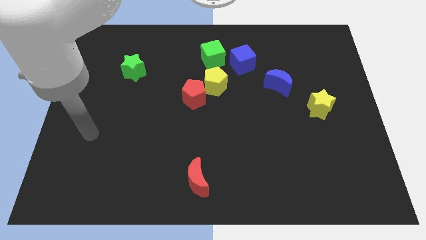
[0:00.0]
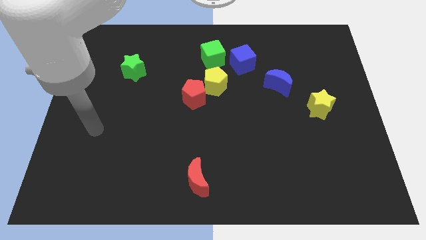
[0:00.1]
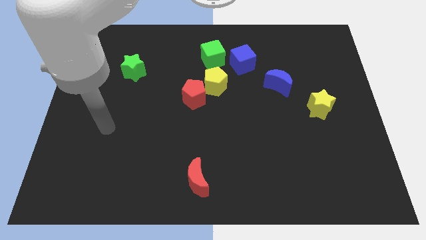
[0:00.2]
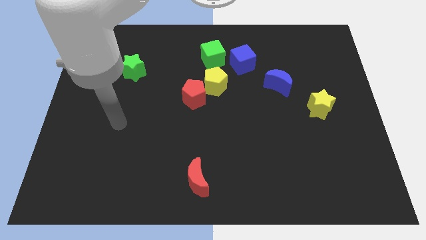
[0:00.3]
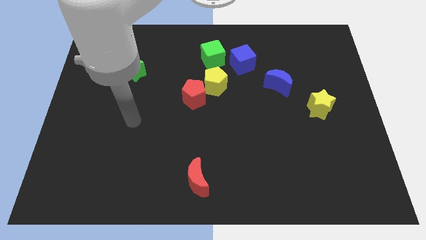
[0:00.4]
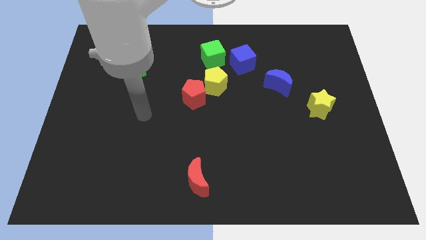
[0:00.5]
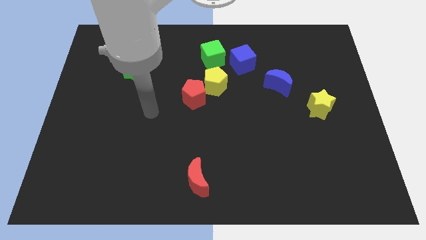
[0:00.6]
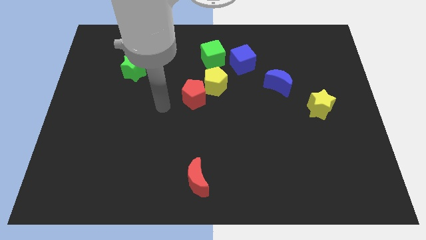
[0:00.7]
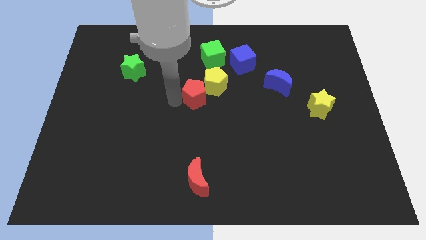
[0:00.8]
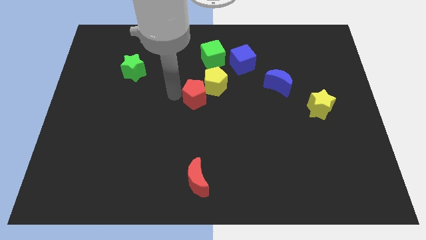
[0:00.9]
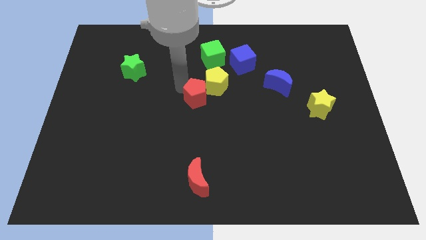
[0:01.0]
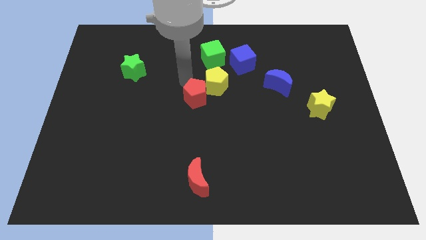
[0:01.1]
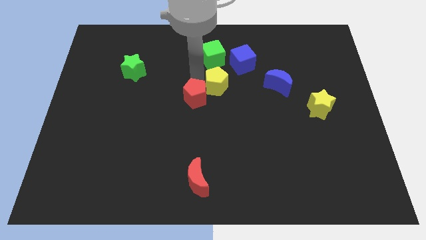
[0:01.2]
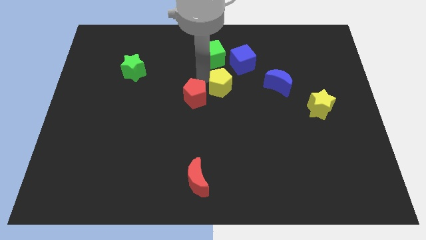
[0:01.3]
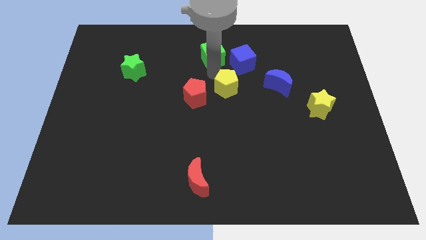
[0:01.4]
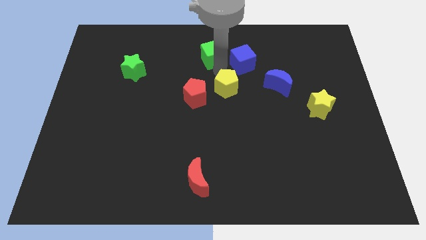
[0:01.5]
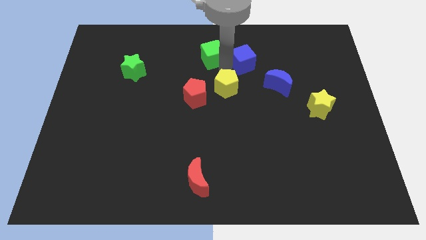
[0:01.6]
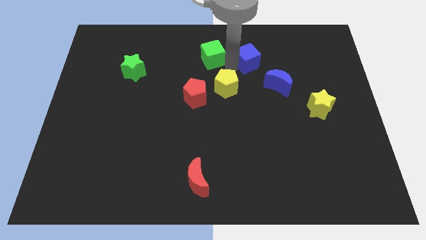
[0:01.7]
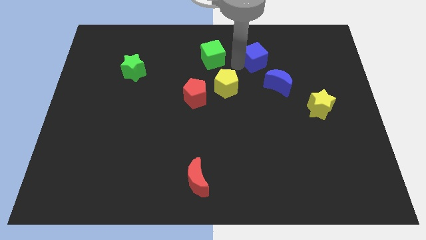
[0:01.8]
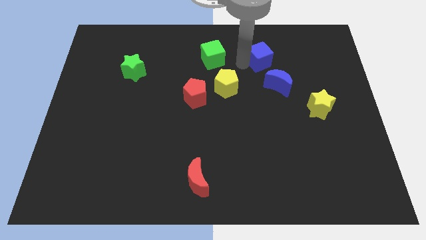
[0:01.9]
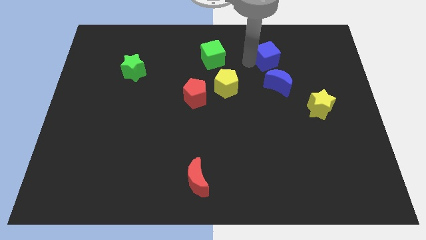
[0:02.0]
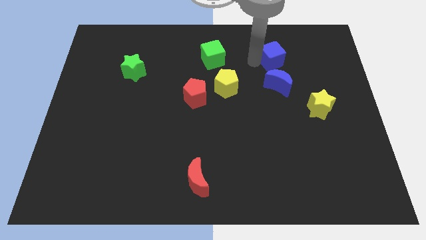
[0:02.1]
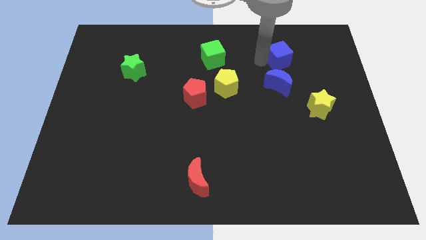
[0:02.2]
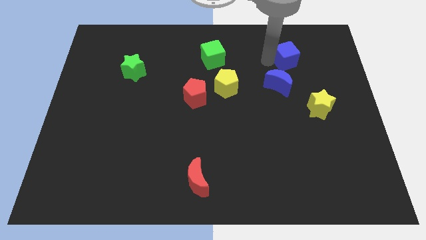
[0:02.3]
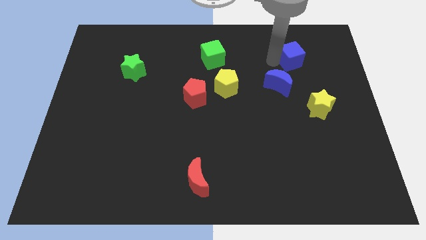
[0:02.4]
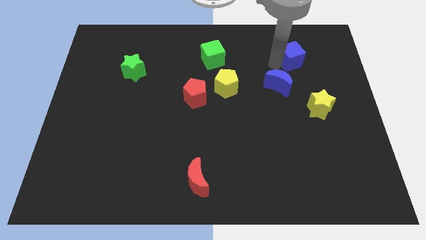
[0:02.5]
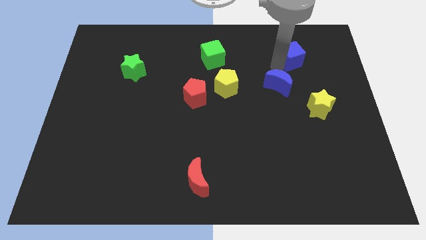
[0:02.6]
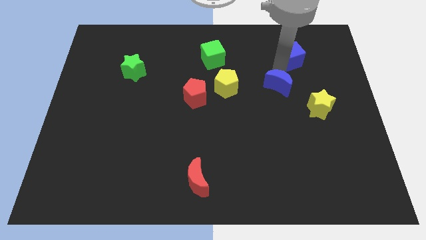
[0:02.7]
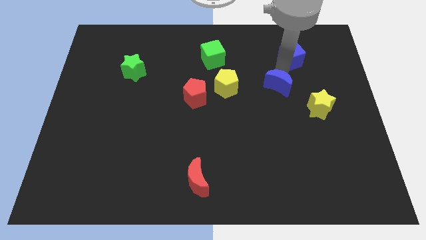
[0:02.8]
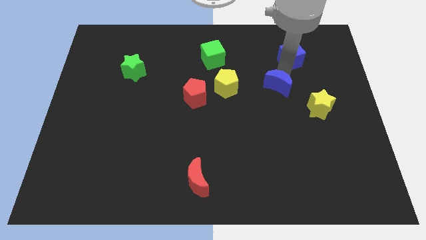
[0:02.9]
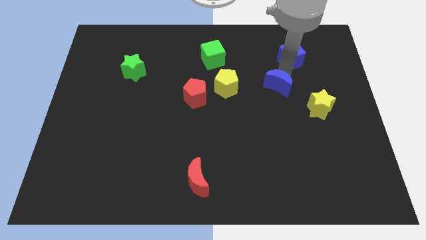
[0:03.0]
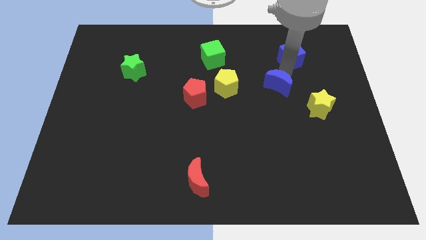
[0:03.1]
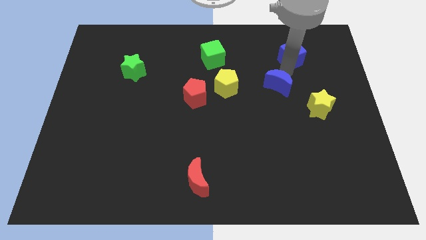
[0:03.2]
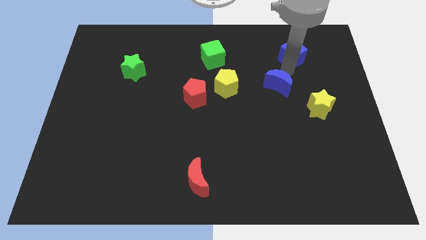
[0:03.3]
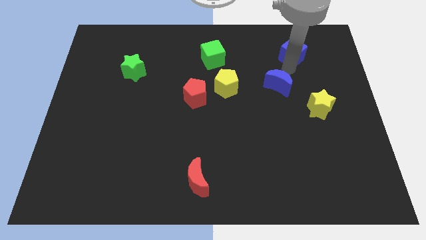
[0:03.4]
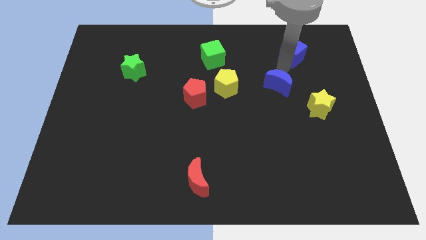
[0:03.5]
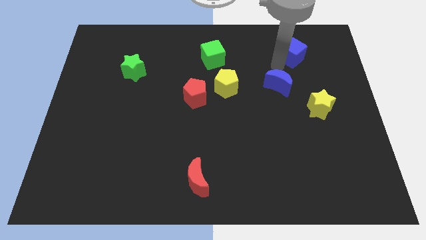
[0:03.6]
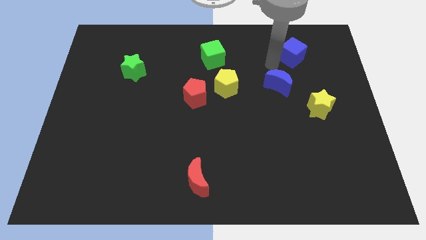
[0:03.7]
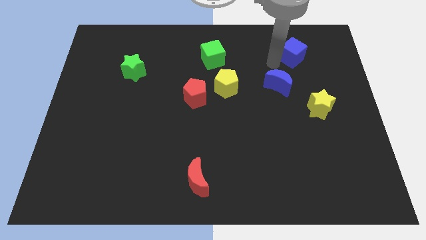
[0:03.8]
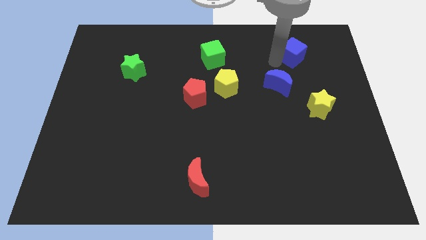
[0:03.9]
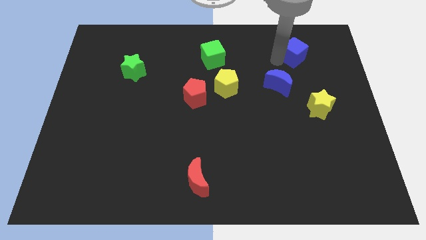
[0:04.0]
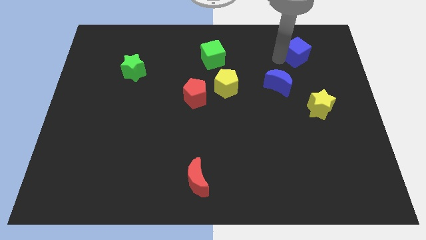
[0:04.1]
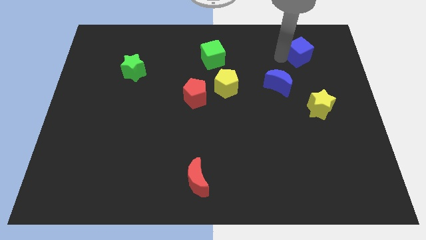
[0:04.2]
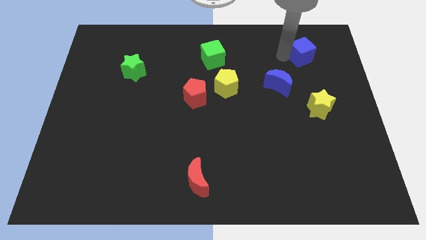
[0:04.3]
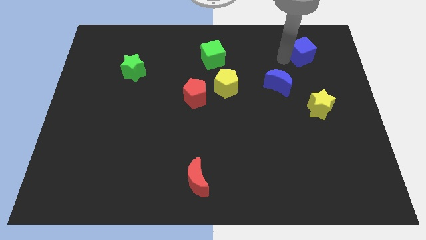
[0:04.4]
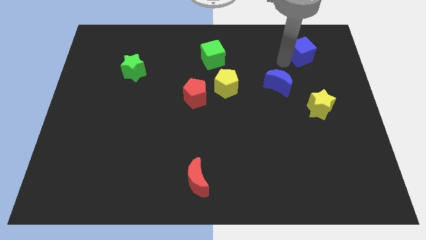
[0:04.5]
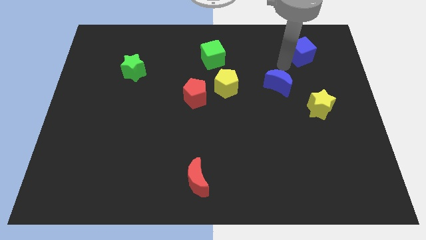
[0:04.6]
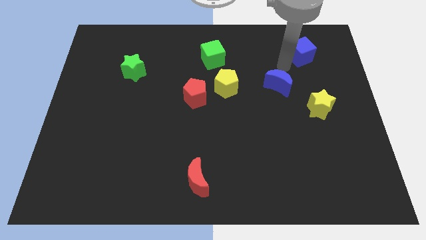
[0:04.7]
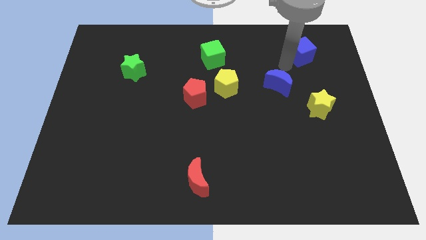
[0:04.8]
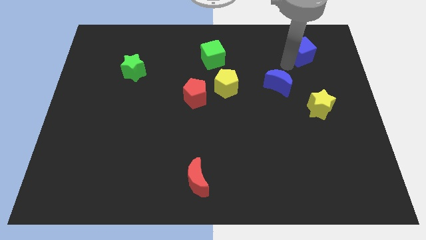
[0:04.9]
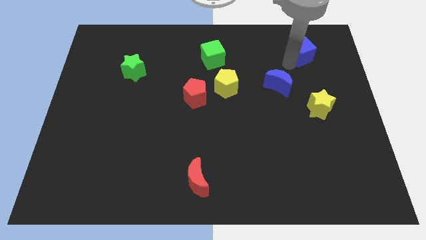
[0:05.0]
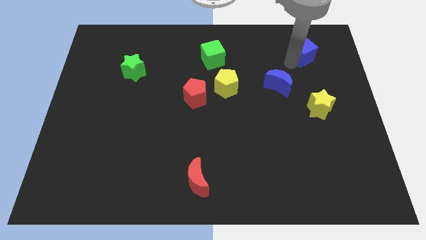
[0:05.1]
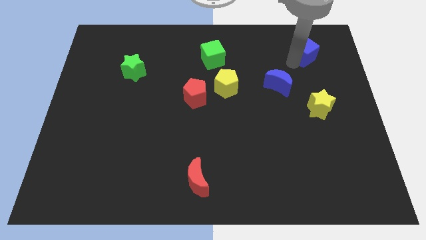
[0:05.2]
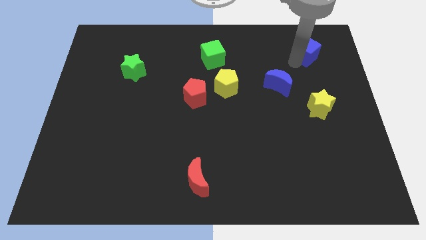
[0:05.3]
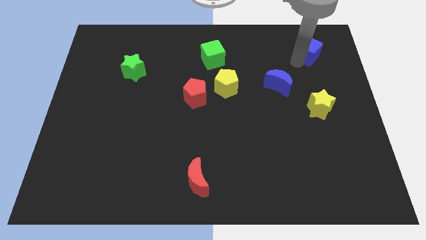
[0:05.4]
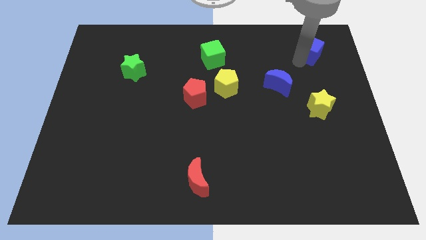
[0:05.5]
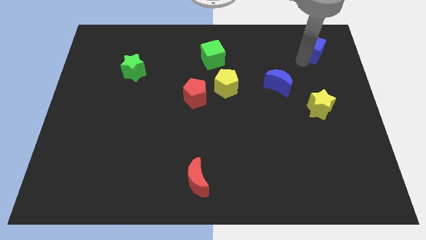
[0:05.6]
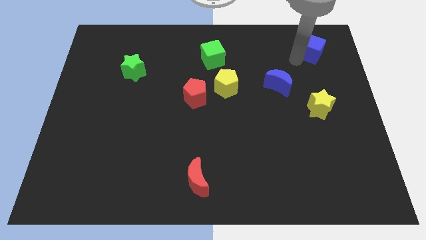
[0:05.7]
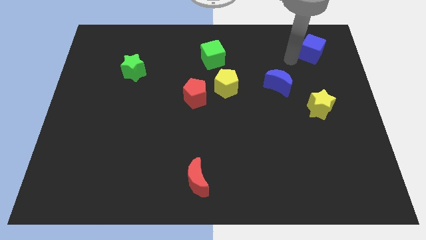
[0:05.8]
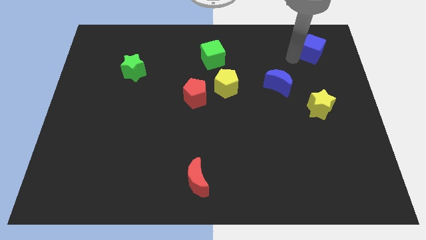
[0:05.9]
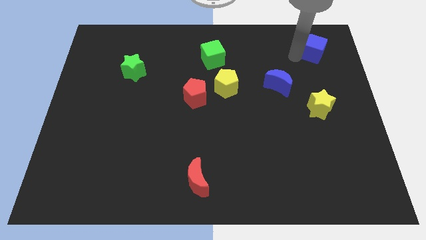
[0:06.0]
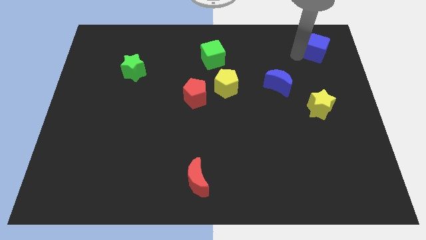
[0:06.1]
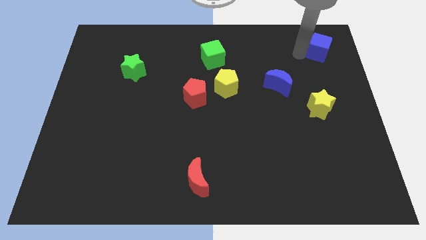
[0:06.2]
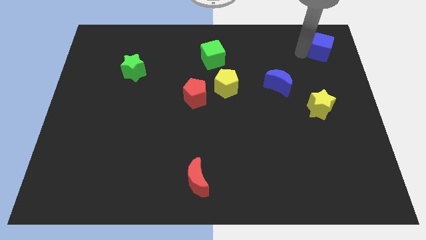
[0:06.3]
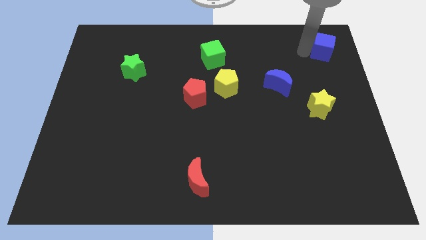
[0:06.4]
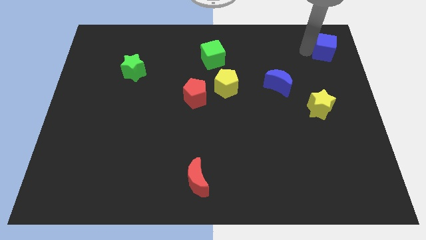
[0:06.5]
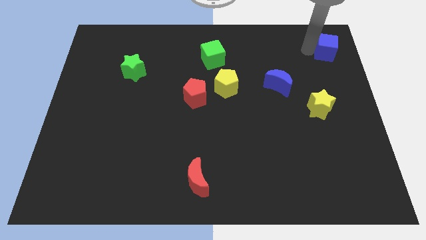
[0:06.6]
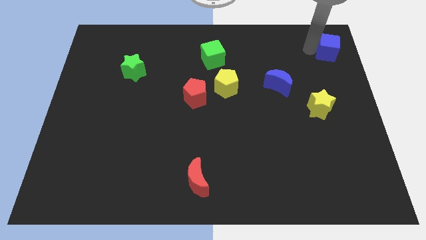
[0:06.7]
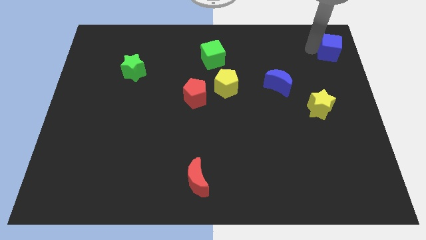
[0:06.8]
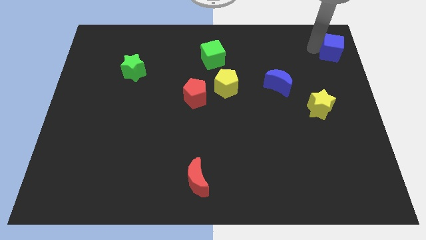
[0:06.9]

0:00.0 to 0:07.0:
move the blue cube to the top right
